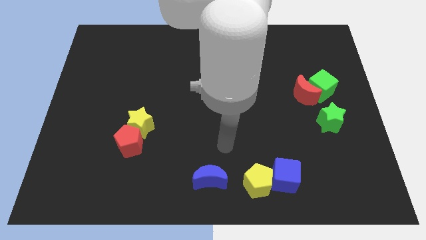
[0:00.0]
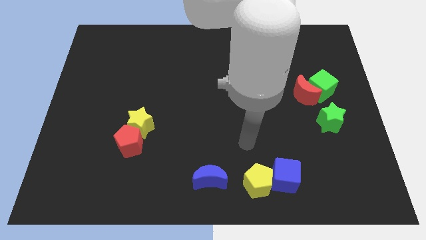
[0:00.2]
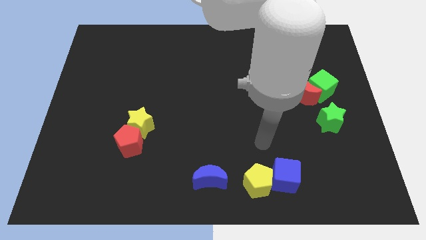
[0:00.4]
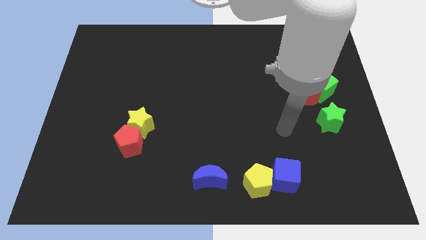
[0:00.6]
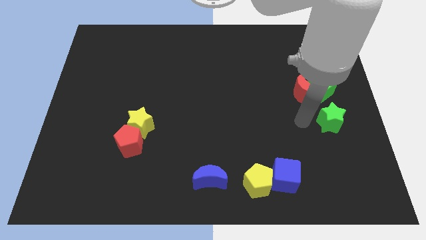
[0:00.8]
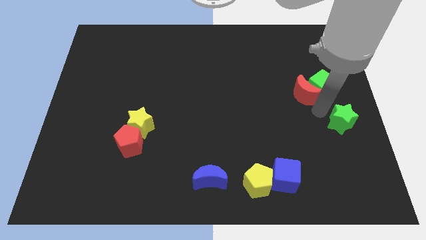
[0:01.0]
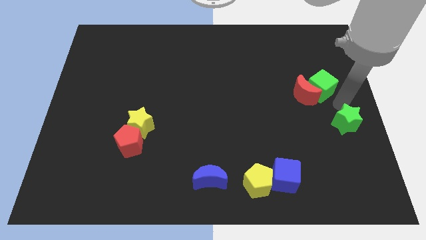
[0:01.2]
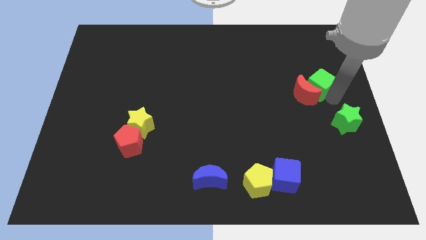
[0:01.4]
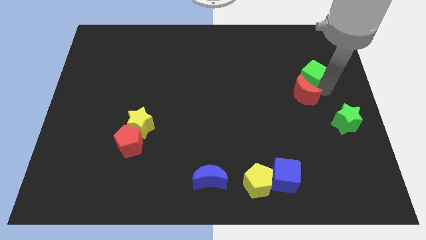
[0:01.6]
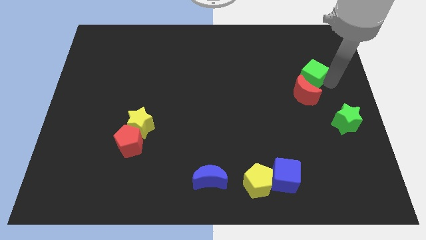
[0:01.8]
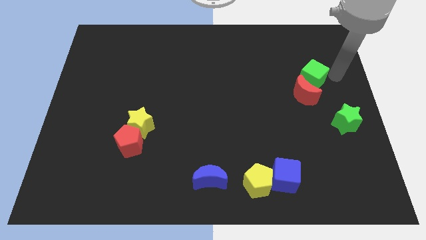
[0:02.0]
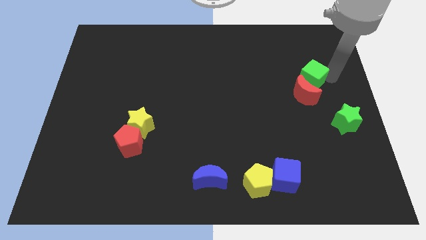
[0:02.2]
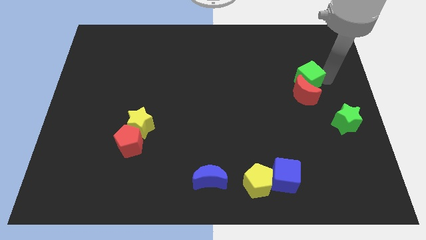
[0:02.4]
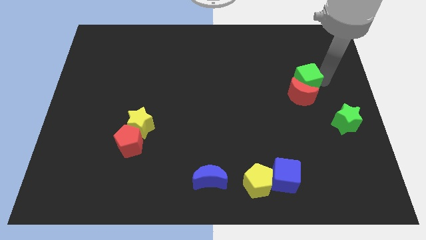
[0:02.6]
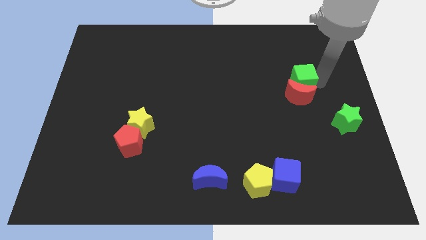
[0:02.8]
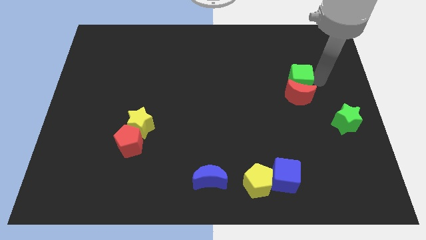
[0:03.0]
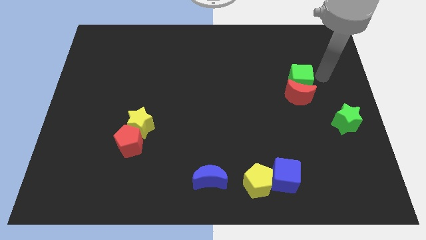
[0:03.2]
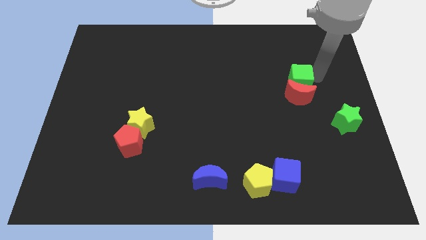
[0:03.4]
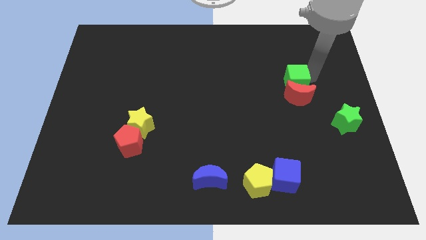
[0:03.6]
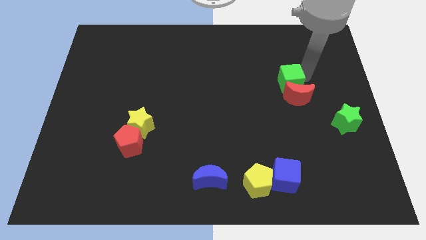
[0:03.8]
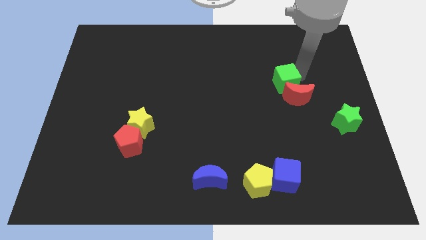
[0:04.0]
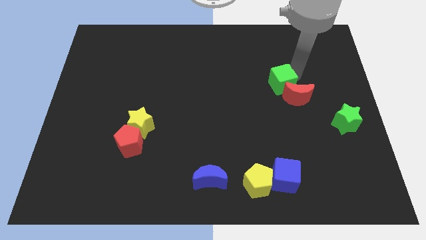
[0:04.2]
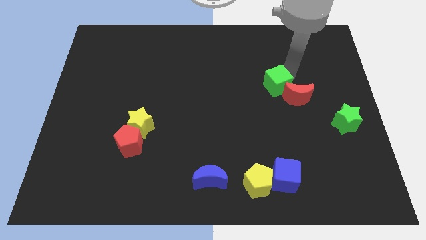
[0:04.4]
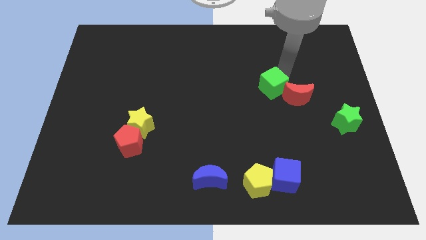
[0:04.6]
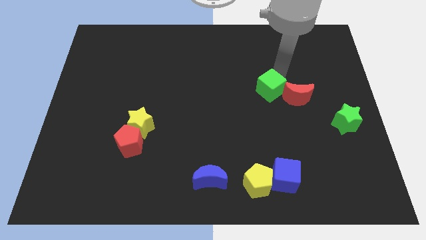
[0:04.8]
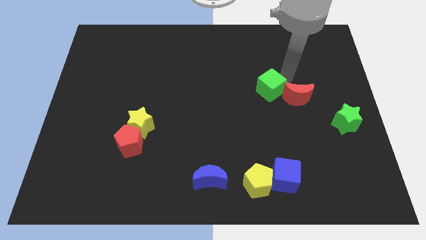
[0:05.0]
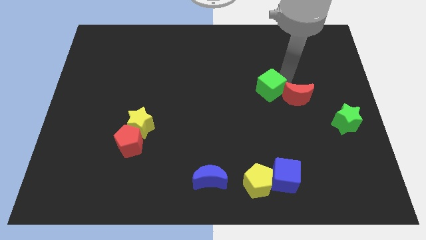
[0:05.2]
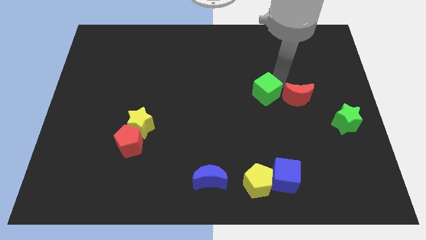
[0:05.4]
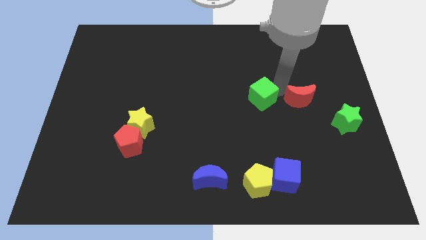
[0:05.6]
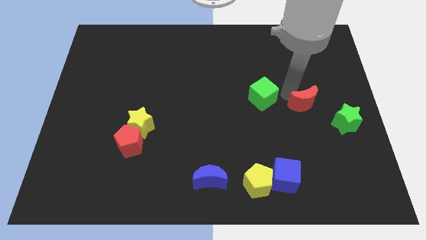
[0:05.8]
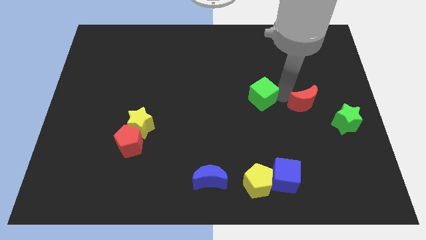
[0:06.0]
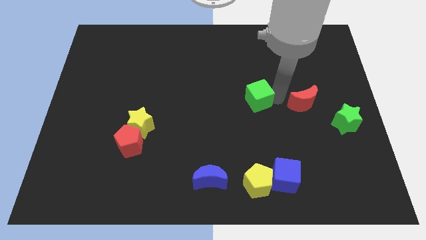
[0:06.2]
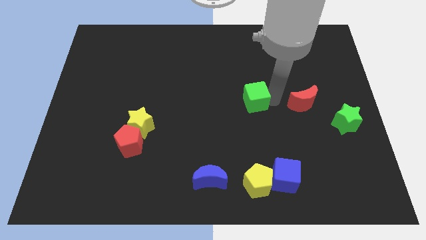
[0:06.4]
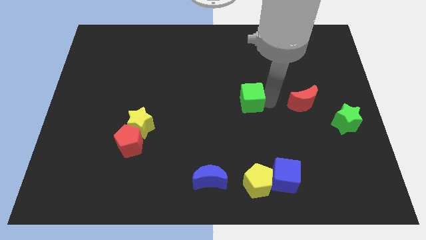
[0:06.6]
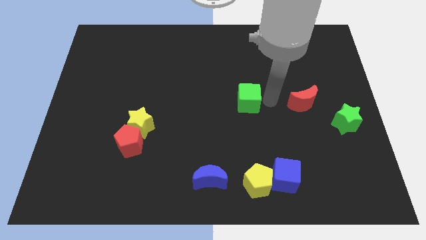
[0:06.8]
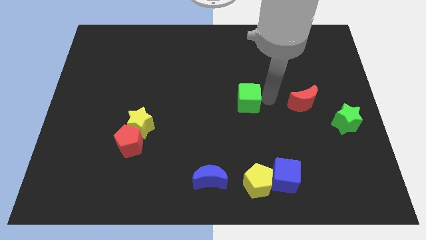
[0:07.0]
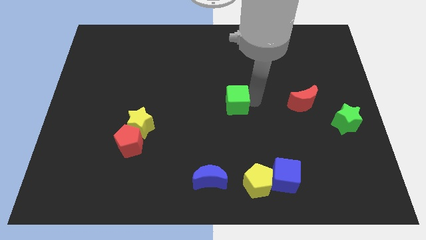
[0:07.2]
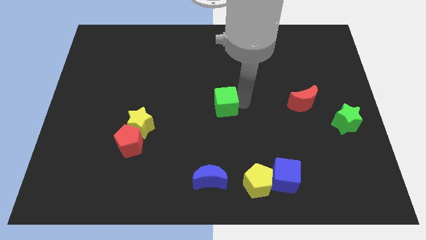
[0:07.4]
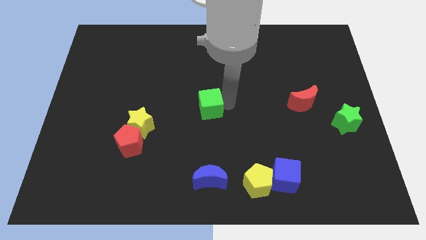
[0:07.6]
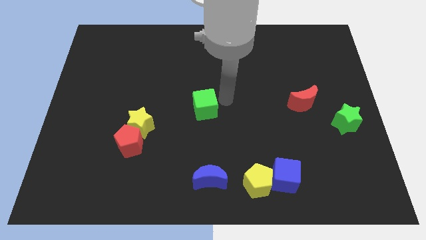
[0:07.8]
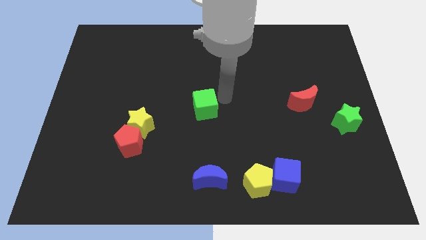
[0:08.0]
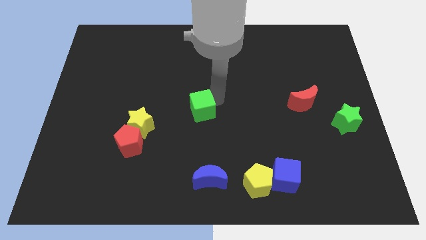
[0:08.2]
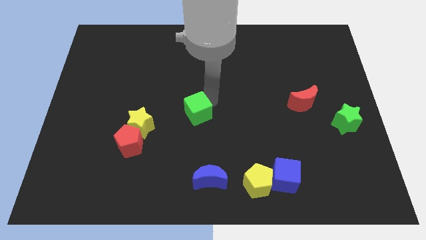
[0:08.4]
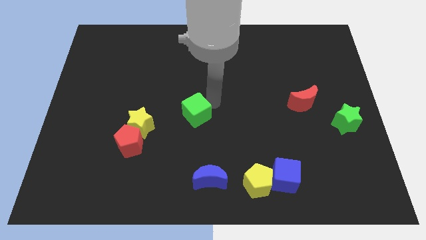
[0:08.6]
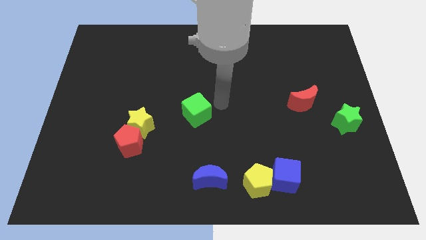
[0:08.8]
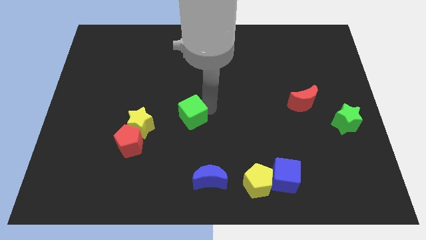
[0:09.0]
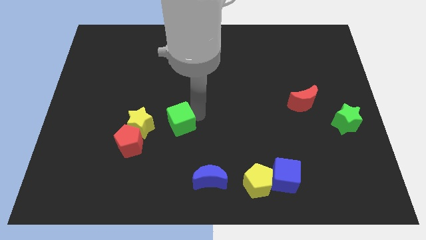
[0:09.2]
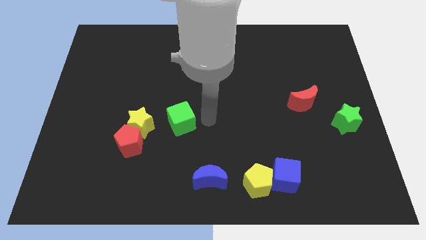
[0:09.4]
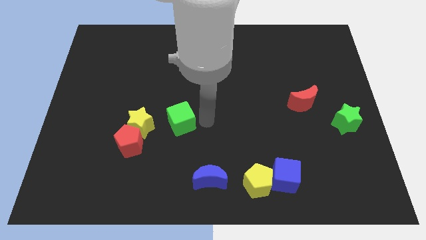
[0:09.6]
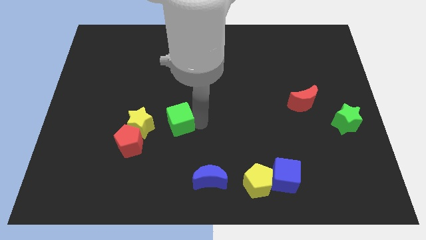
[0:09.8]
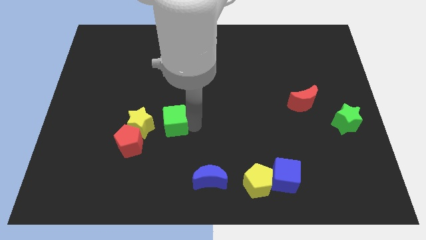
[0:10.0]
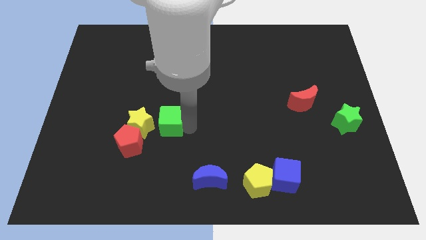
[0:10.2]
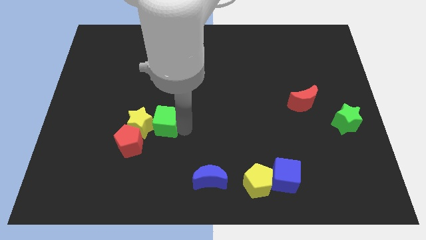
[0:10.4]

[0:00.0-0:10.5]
put the green cube next to the yellow star

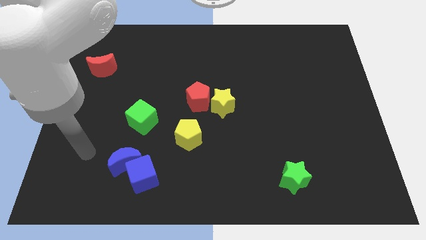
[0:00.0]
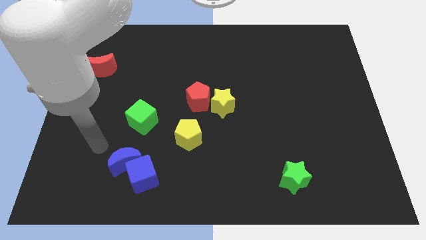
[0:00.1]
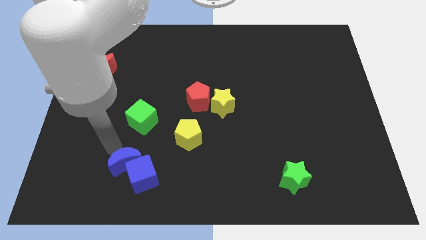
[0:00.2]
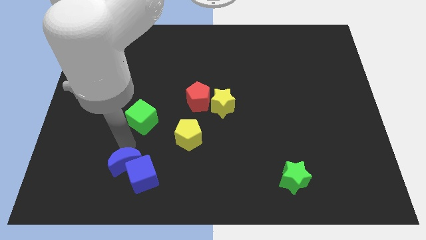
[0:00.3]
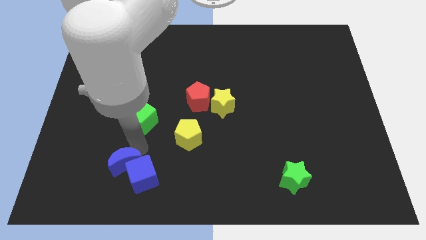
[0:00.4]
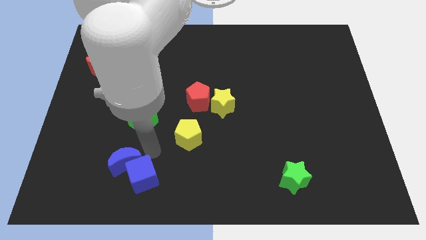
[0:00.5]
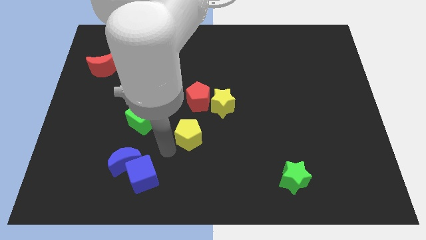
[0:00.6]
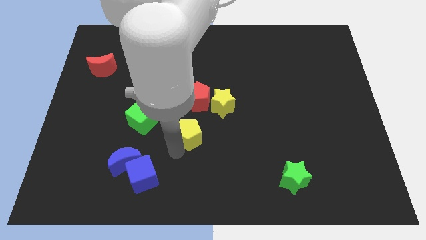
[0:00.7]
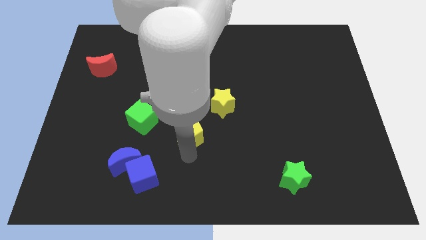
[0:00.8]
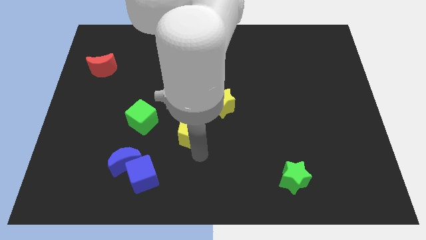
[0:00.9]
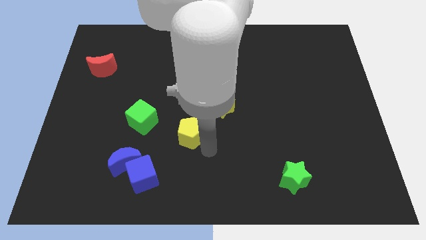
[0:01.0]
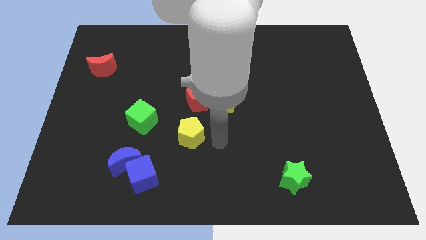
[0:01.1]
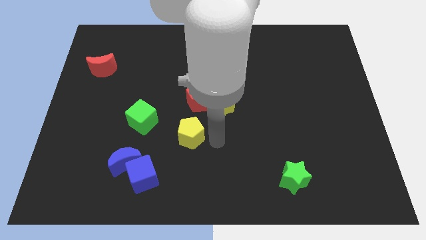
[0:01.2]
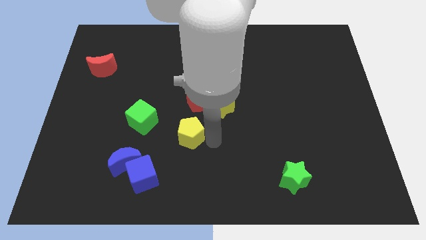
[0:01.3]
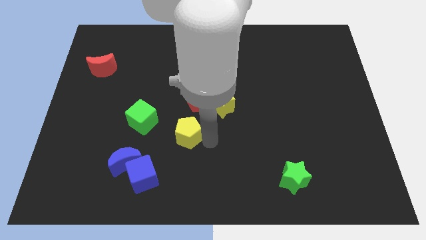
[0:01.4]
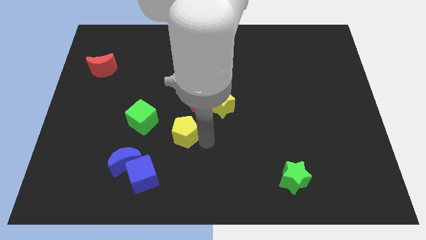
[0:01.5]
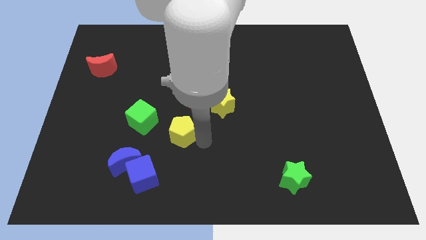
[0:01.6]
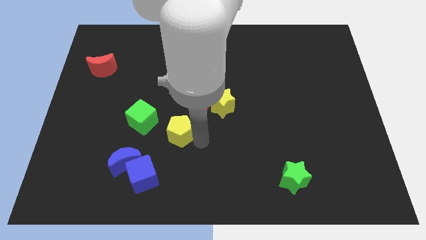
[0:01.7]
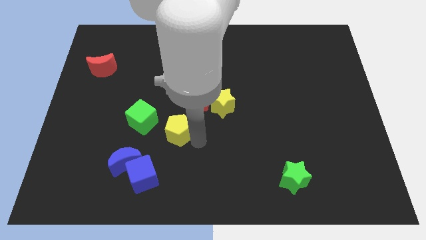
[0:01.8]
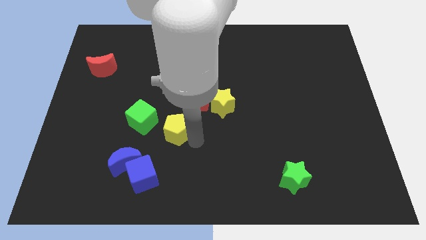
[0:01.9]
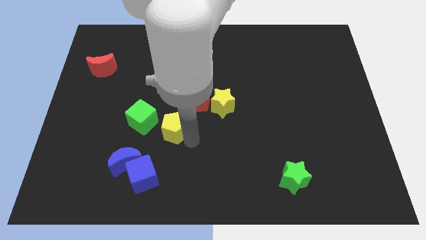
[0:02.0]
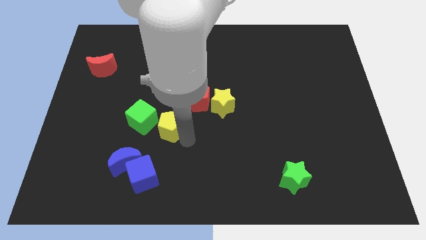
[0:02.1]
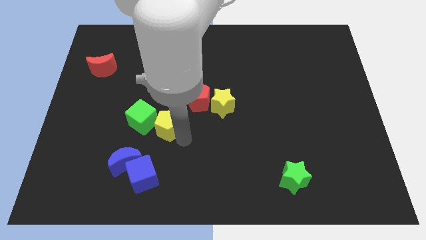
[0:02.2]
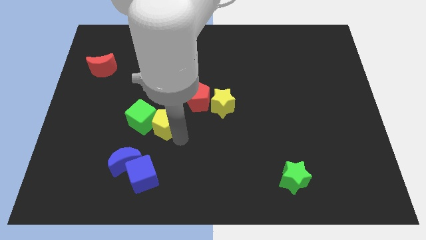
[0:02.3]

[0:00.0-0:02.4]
slide the yellow pentagon to the green cube
